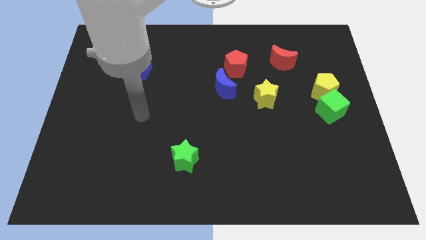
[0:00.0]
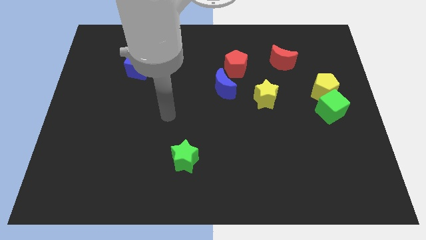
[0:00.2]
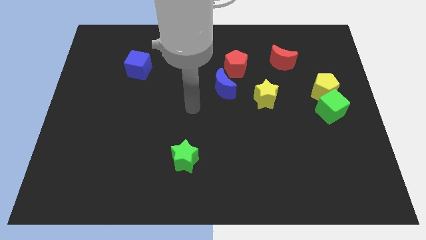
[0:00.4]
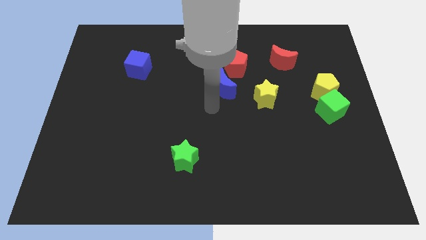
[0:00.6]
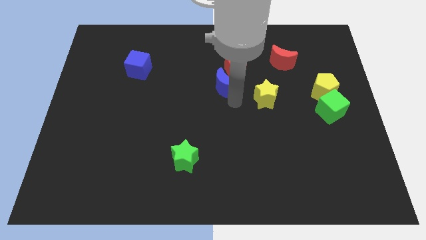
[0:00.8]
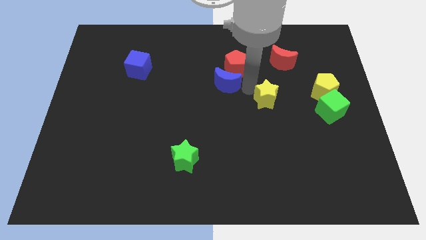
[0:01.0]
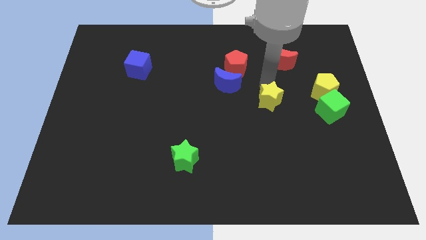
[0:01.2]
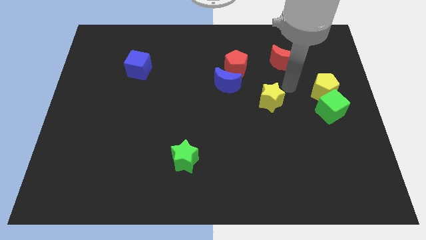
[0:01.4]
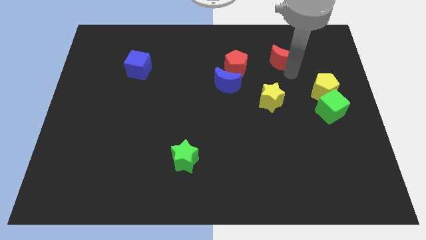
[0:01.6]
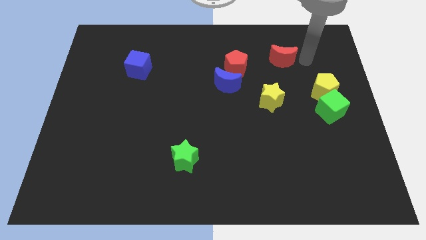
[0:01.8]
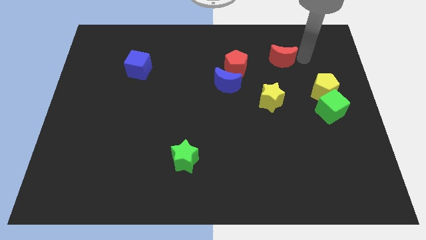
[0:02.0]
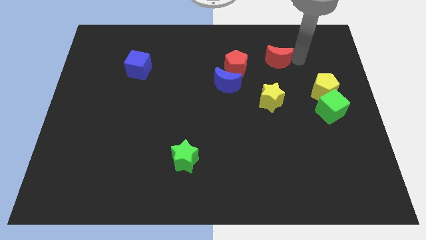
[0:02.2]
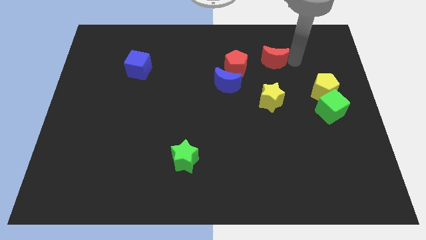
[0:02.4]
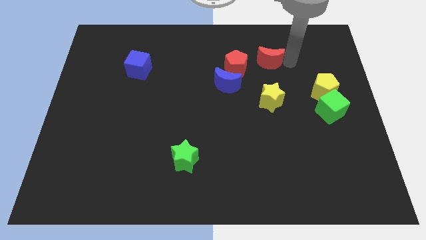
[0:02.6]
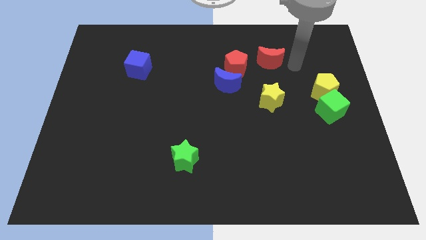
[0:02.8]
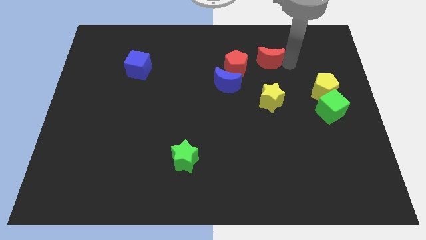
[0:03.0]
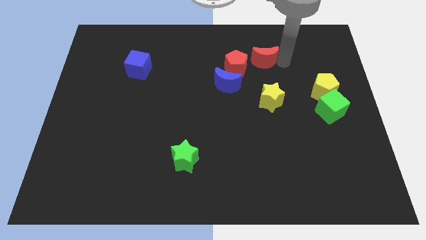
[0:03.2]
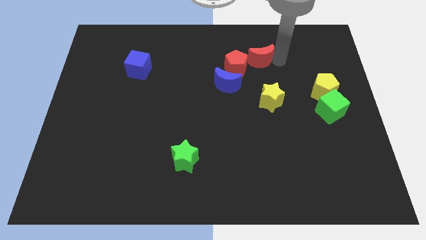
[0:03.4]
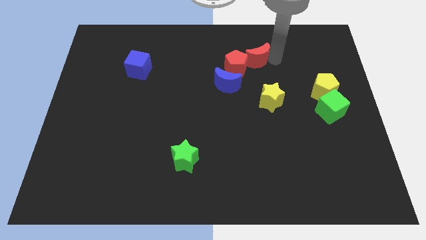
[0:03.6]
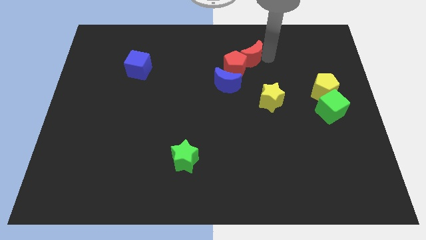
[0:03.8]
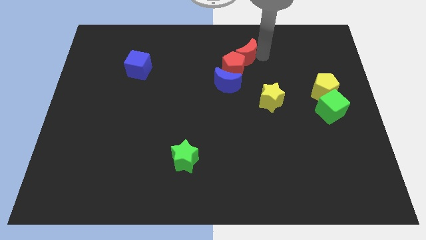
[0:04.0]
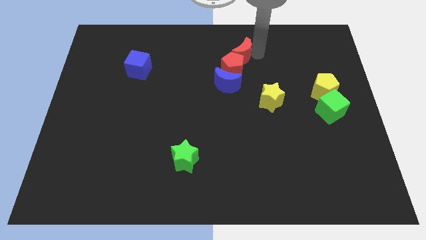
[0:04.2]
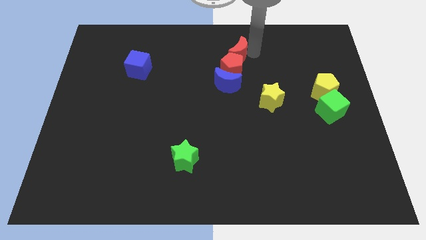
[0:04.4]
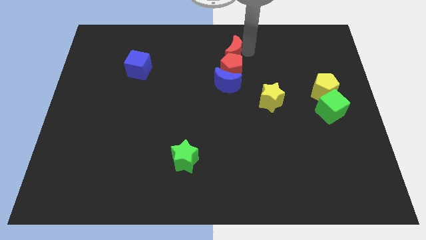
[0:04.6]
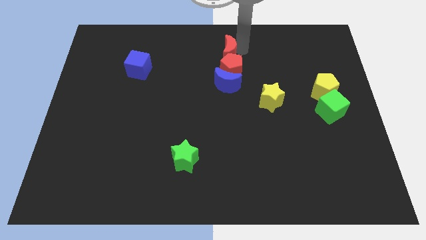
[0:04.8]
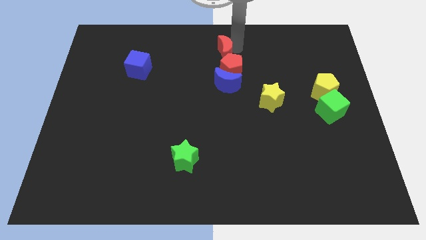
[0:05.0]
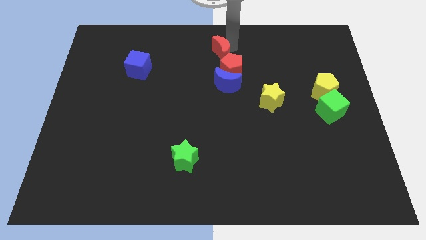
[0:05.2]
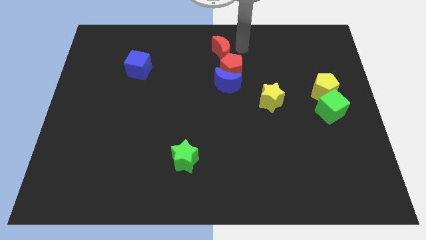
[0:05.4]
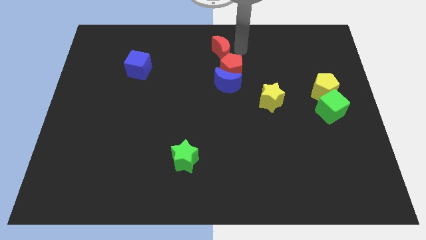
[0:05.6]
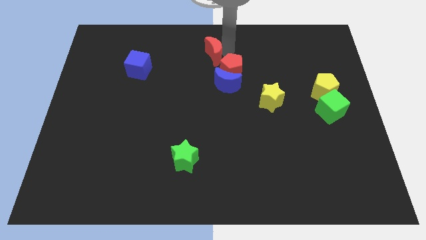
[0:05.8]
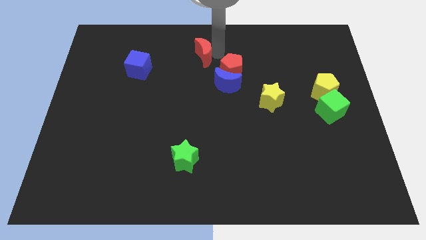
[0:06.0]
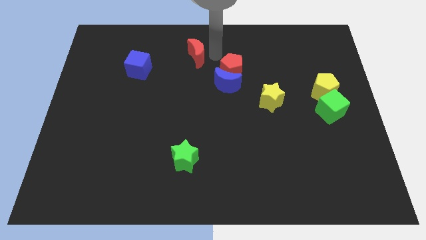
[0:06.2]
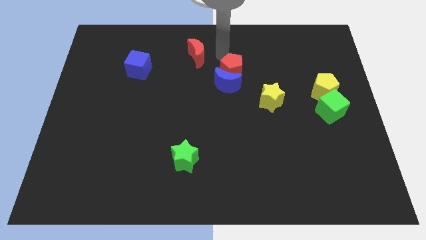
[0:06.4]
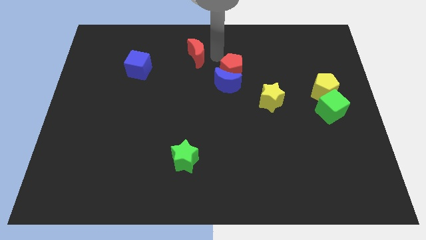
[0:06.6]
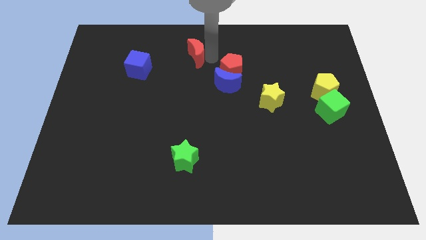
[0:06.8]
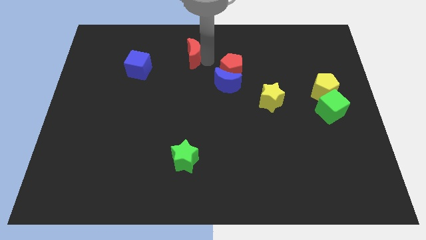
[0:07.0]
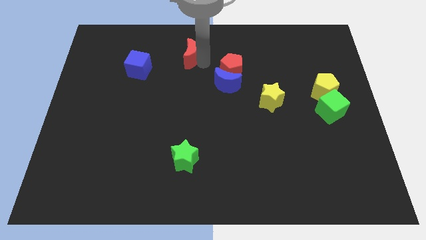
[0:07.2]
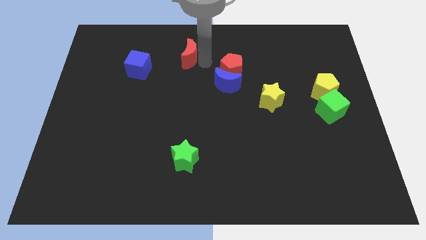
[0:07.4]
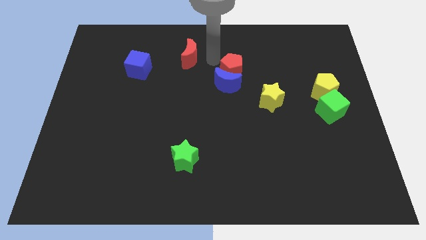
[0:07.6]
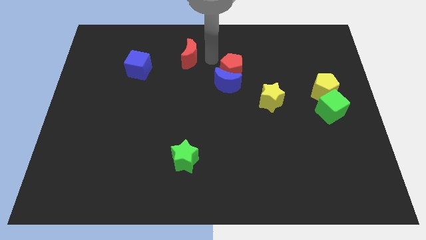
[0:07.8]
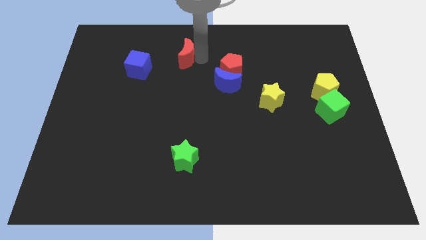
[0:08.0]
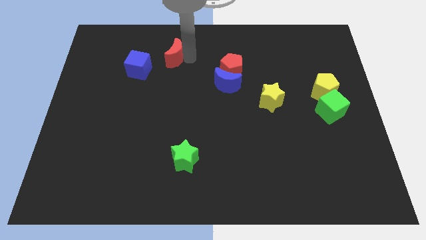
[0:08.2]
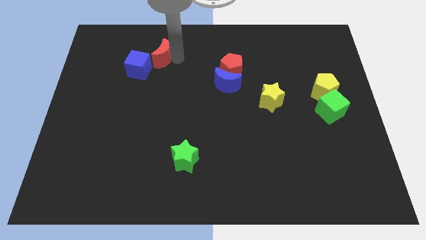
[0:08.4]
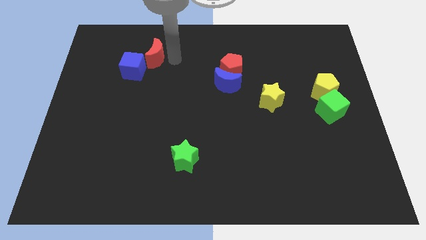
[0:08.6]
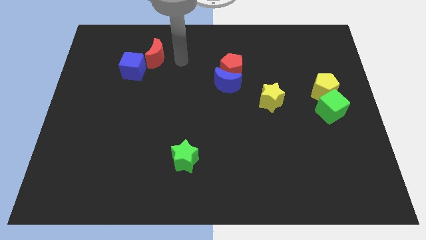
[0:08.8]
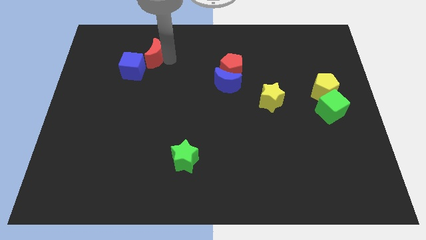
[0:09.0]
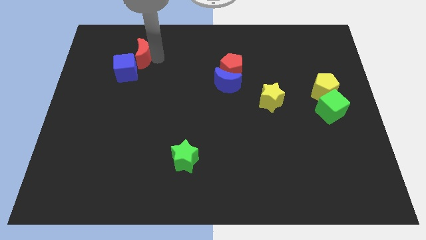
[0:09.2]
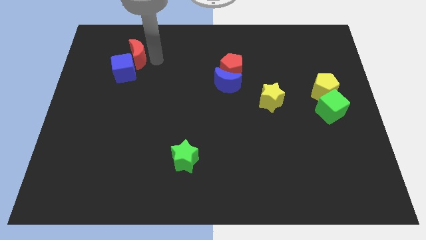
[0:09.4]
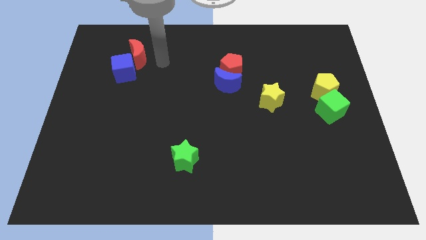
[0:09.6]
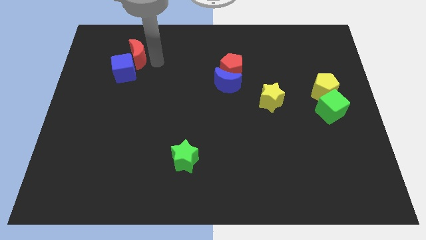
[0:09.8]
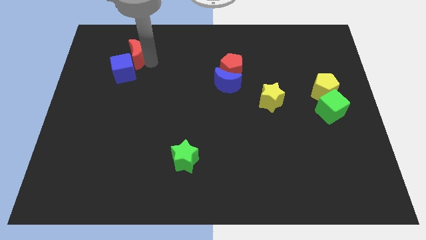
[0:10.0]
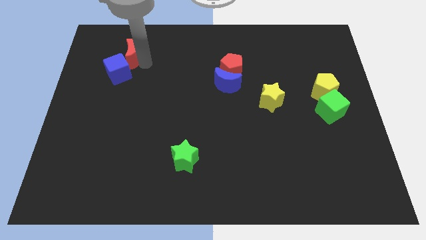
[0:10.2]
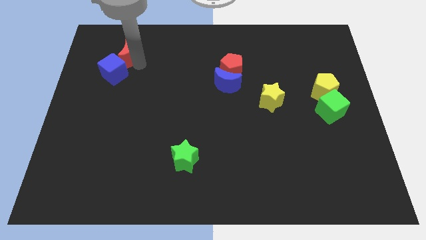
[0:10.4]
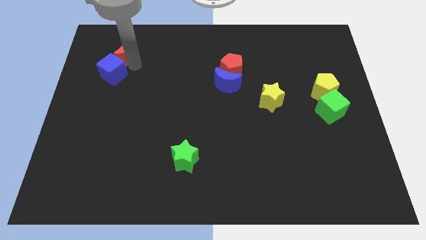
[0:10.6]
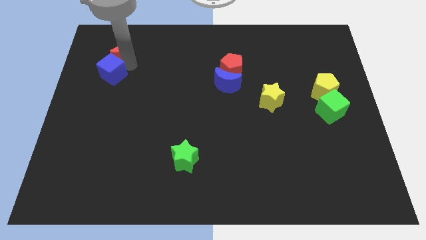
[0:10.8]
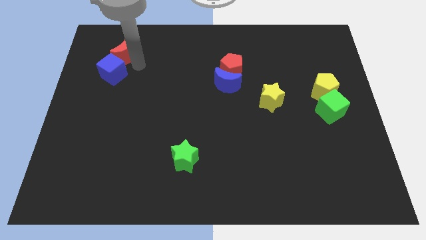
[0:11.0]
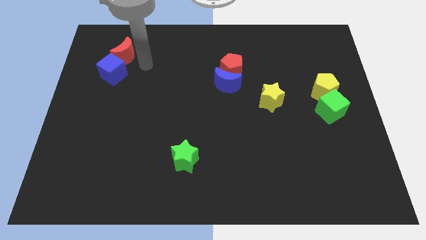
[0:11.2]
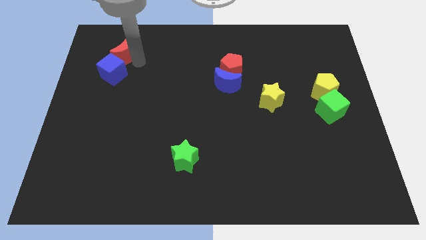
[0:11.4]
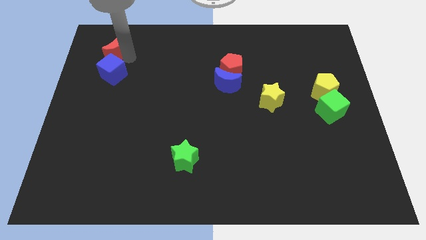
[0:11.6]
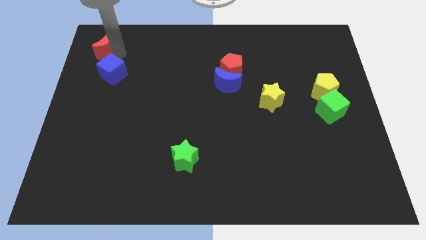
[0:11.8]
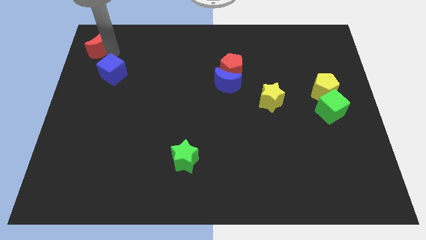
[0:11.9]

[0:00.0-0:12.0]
slide the red moon to the top left of the board
